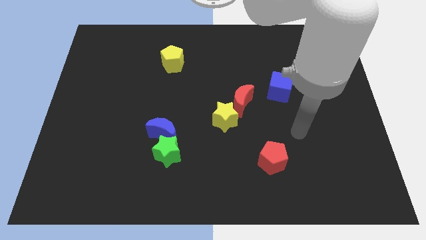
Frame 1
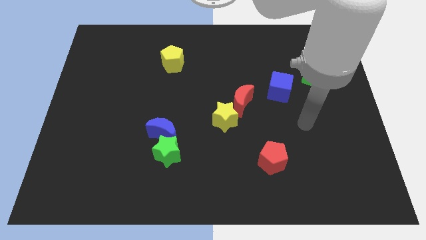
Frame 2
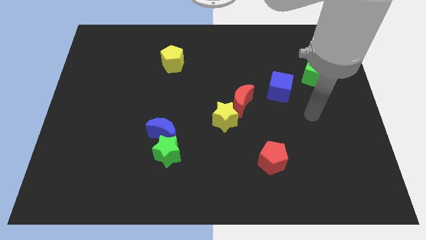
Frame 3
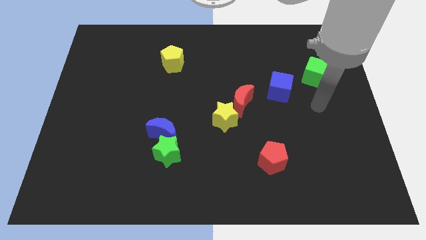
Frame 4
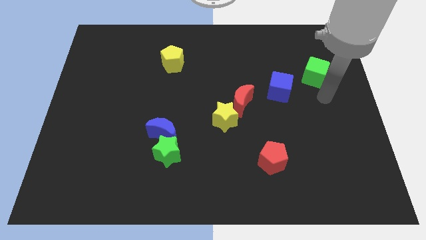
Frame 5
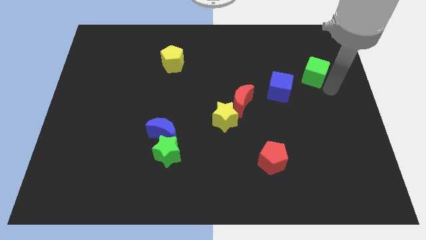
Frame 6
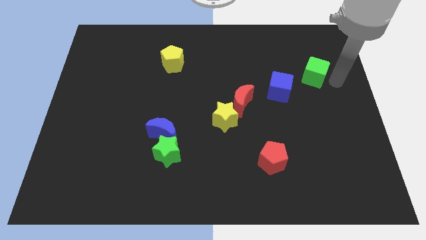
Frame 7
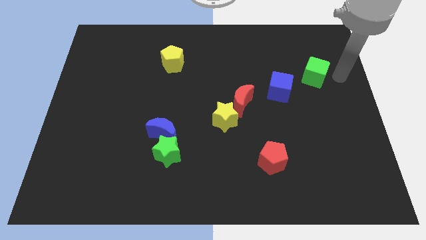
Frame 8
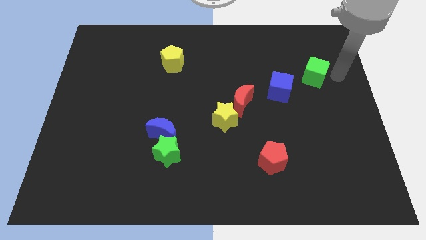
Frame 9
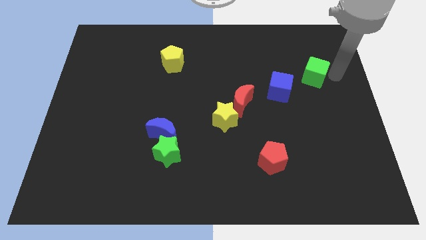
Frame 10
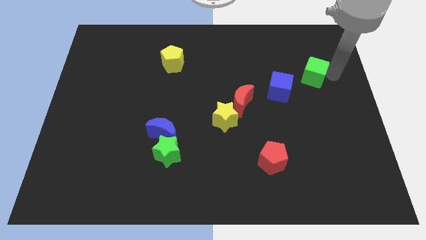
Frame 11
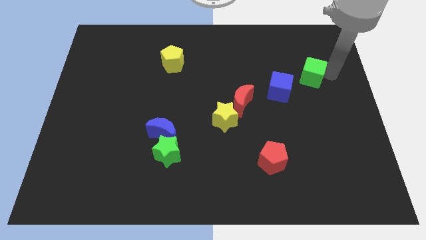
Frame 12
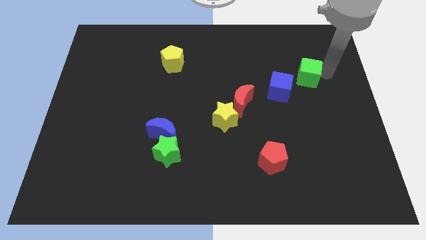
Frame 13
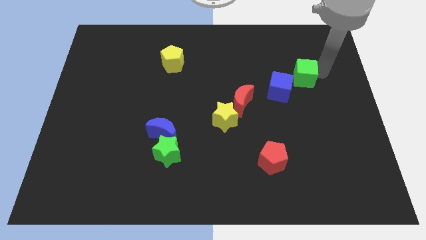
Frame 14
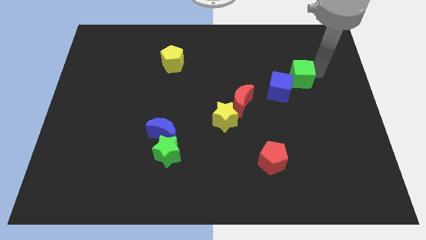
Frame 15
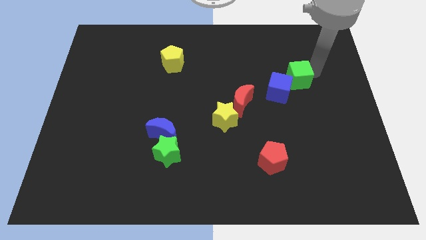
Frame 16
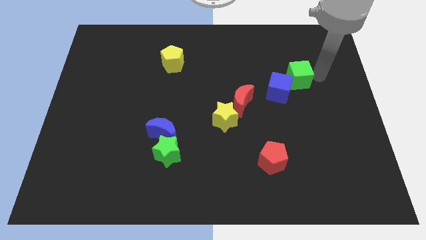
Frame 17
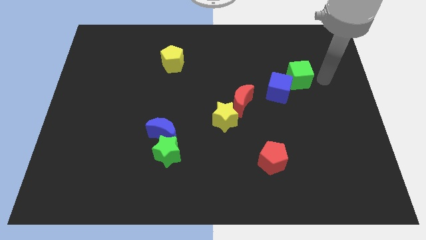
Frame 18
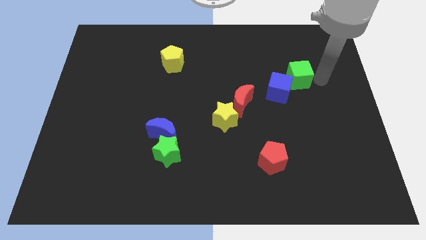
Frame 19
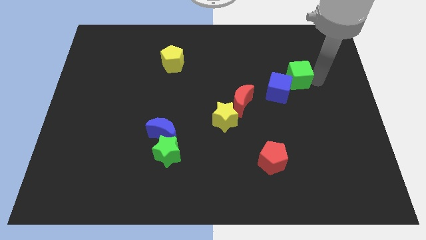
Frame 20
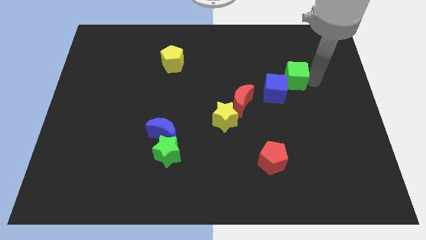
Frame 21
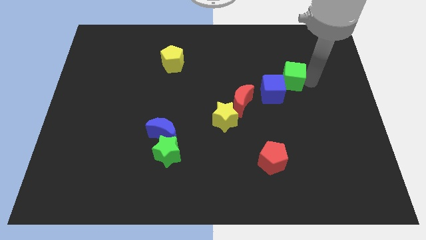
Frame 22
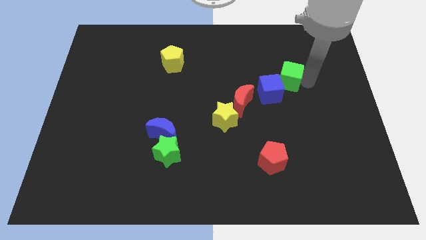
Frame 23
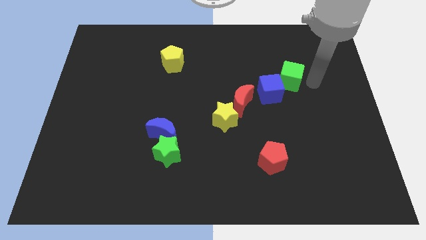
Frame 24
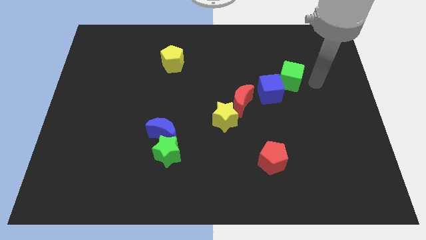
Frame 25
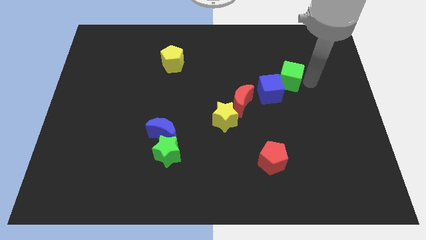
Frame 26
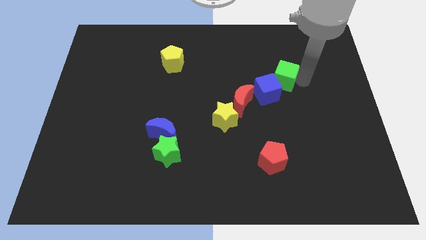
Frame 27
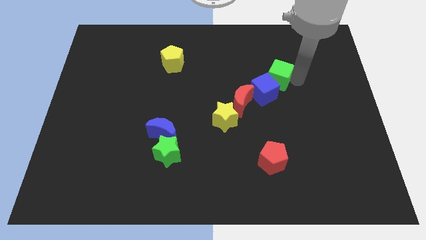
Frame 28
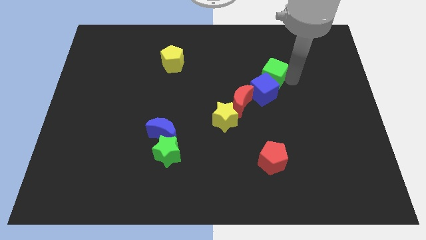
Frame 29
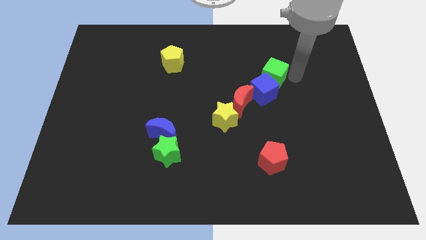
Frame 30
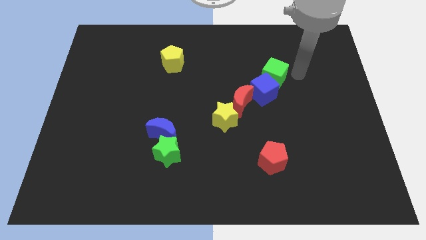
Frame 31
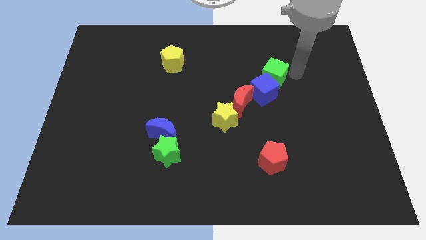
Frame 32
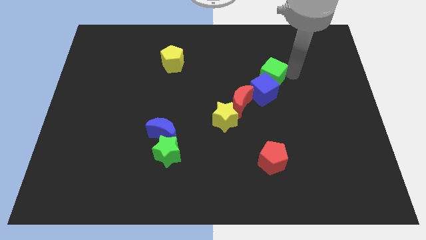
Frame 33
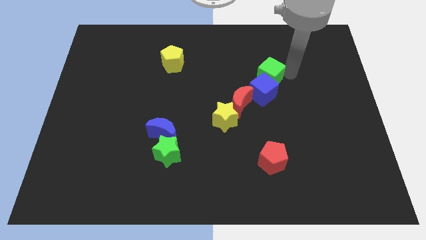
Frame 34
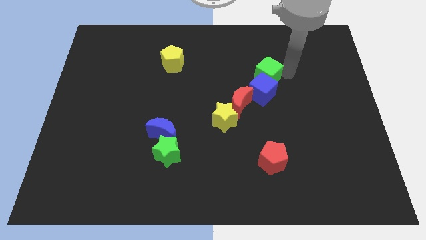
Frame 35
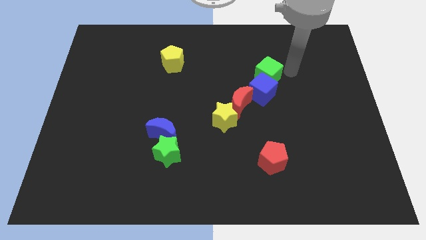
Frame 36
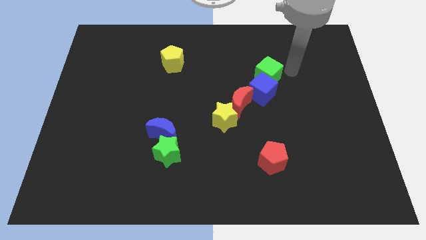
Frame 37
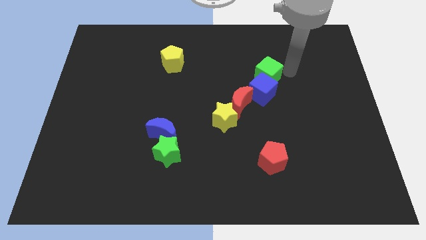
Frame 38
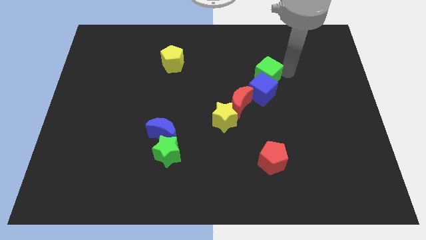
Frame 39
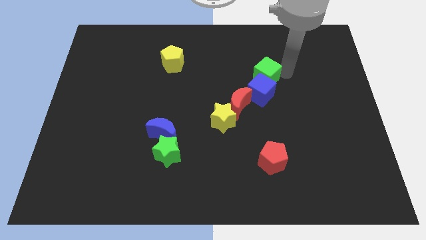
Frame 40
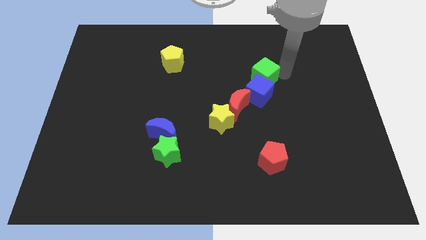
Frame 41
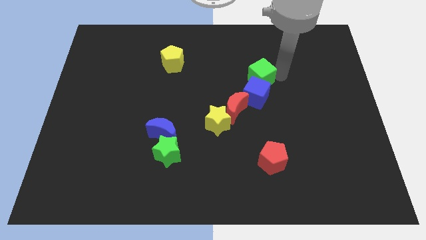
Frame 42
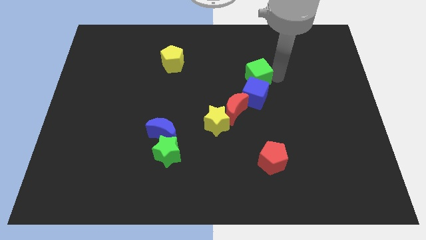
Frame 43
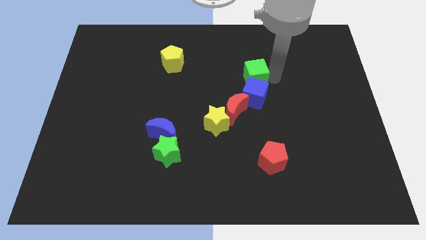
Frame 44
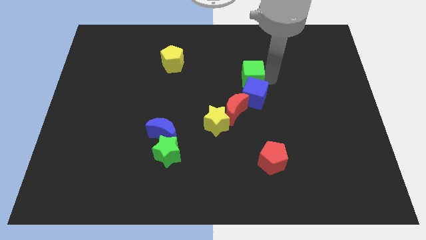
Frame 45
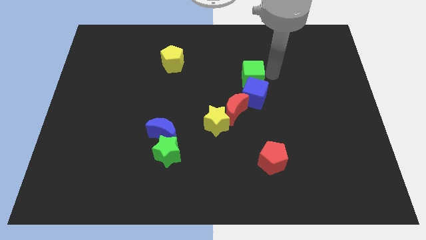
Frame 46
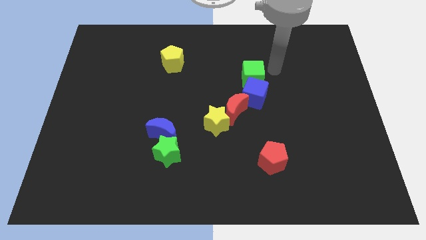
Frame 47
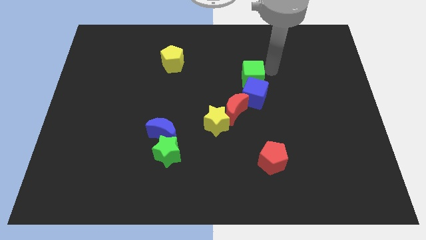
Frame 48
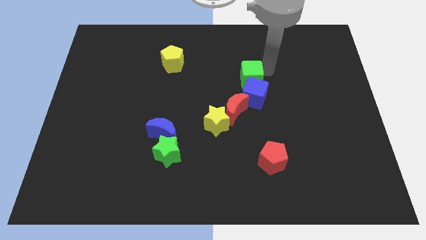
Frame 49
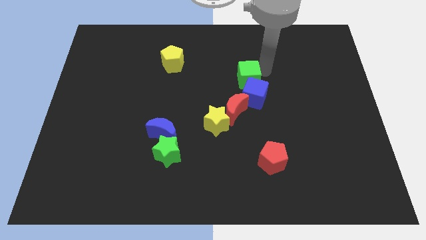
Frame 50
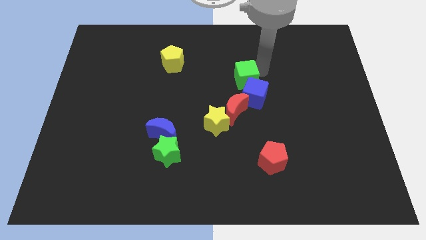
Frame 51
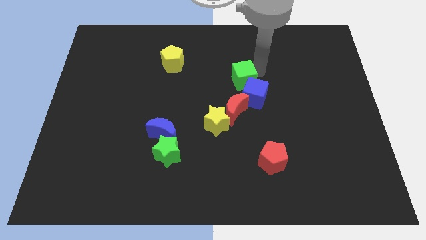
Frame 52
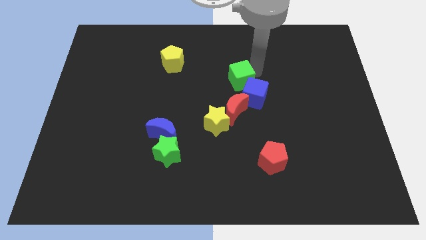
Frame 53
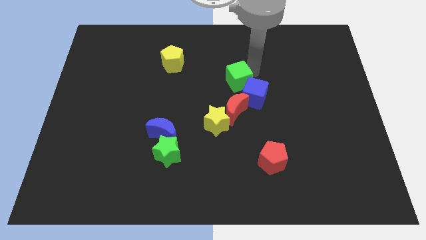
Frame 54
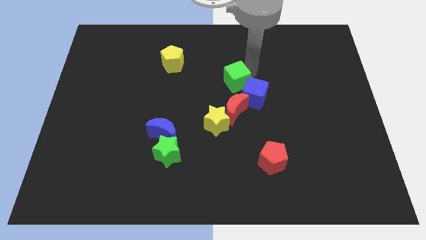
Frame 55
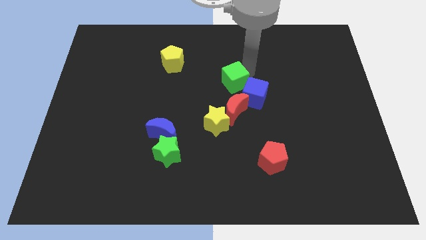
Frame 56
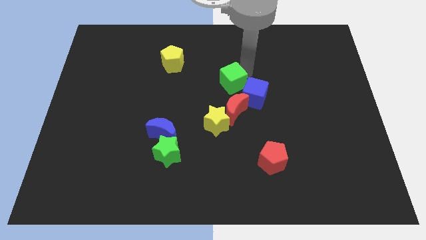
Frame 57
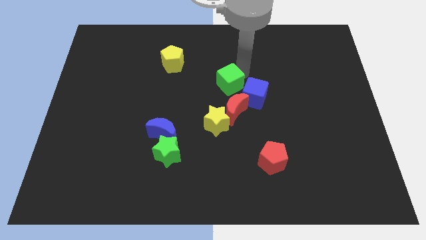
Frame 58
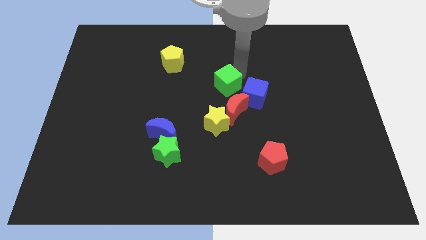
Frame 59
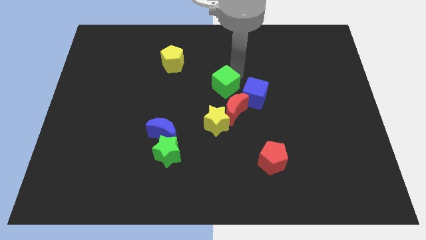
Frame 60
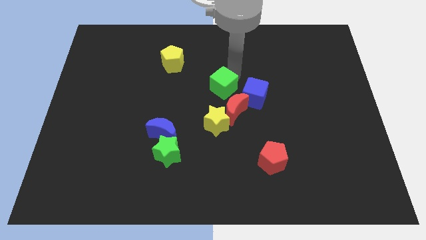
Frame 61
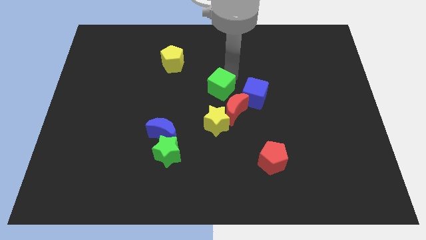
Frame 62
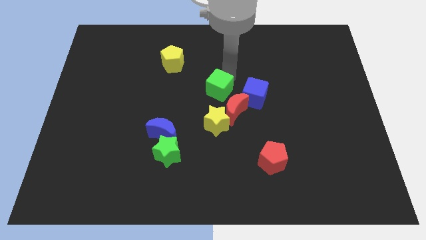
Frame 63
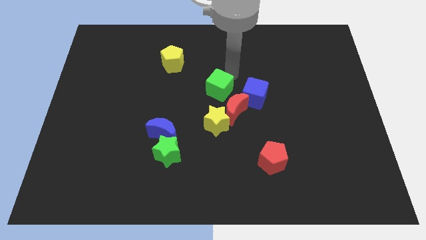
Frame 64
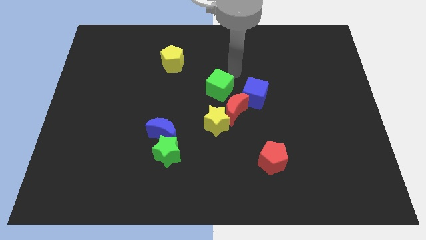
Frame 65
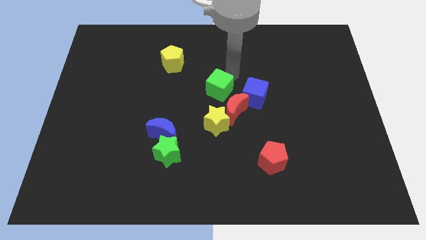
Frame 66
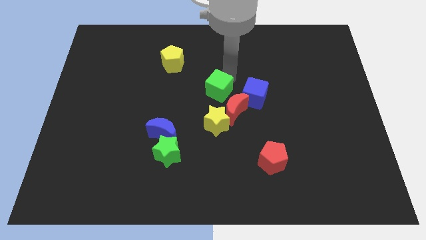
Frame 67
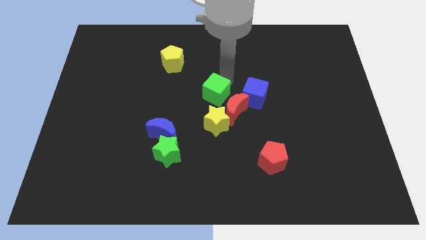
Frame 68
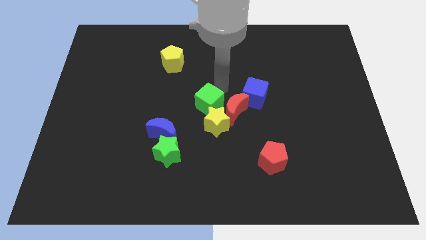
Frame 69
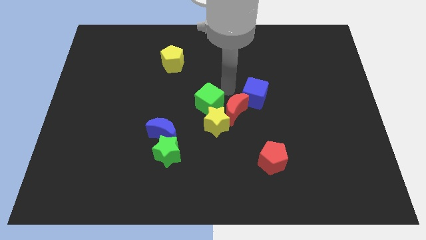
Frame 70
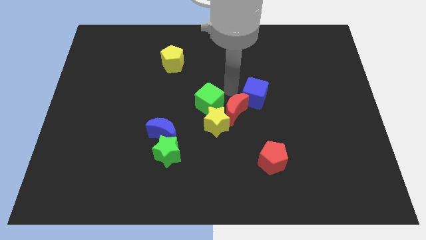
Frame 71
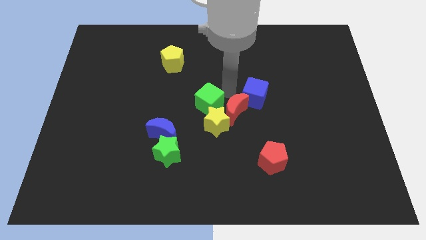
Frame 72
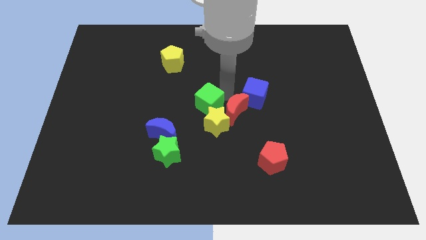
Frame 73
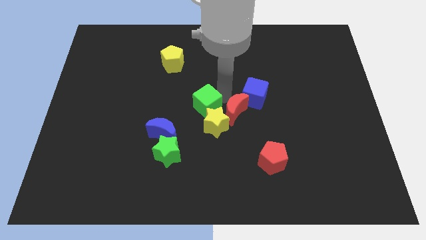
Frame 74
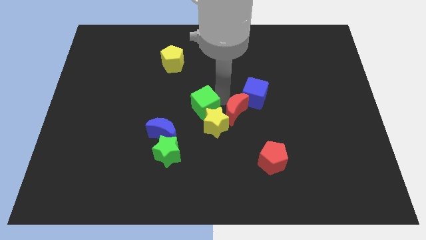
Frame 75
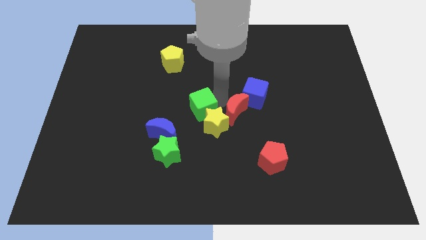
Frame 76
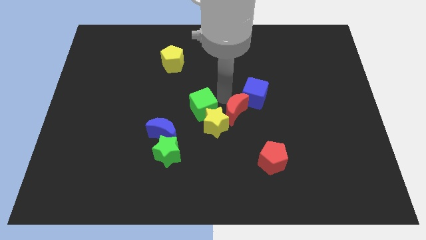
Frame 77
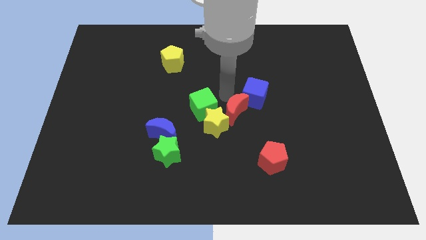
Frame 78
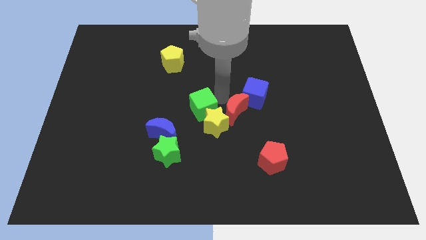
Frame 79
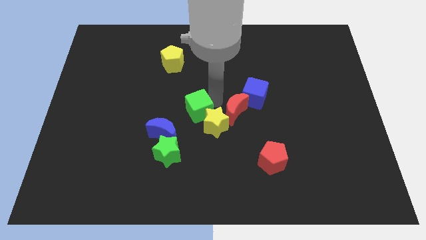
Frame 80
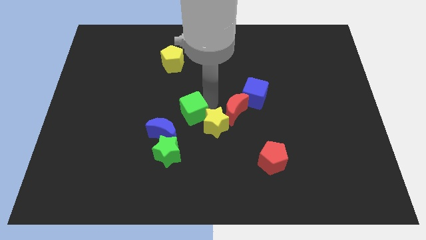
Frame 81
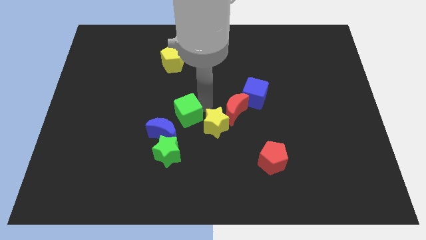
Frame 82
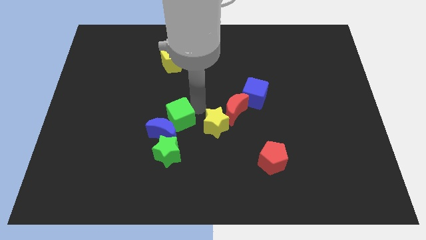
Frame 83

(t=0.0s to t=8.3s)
move the green cube next to the blue moon
